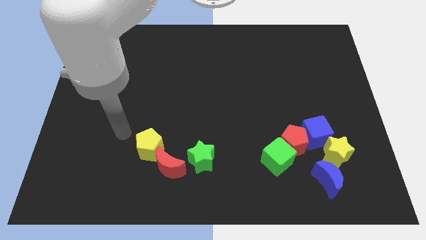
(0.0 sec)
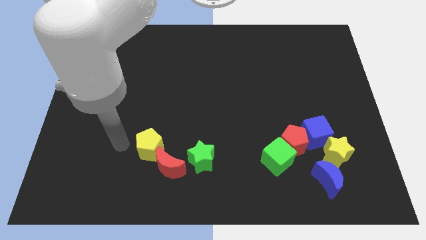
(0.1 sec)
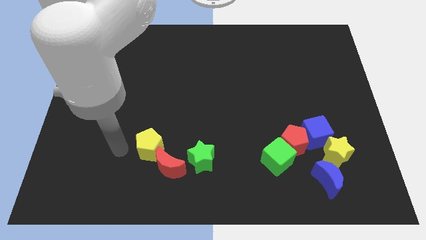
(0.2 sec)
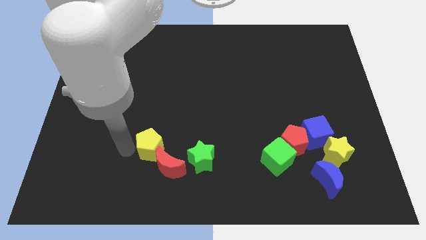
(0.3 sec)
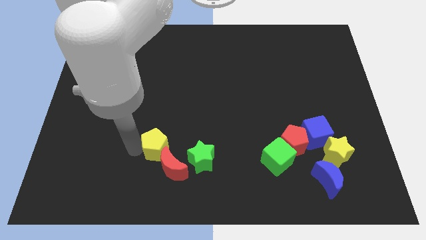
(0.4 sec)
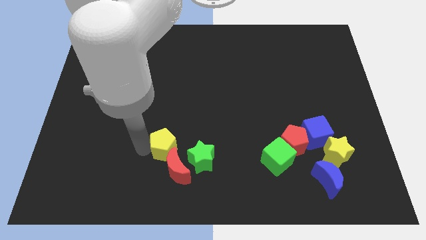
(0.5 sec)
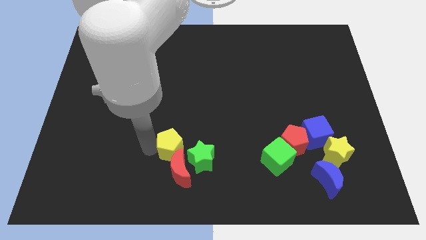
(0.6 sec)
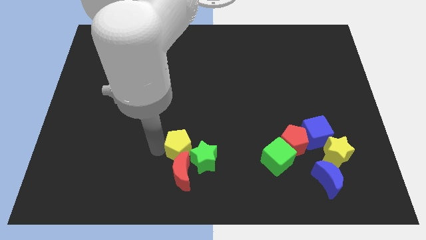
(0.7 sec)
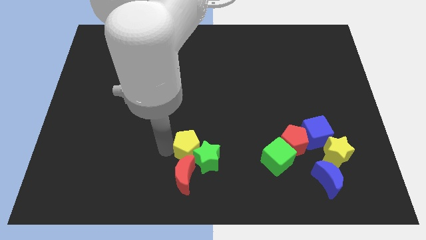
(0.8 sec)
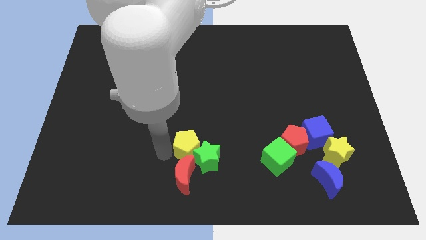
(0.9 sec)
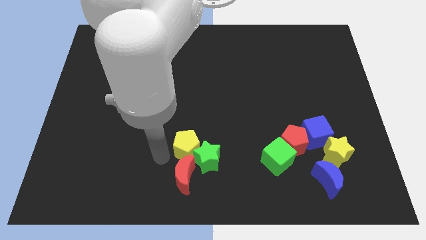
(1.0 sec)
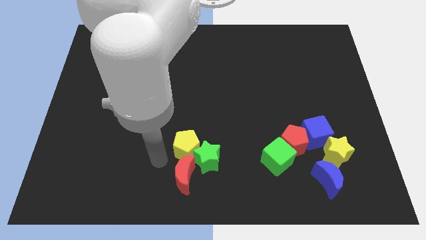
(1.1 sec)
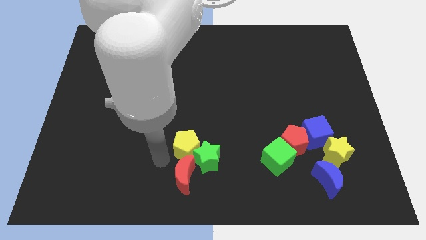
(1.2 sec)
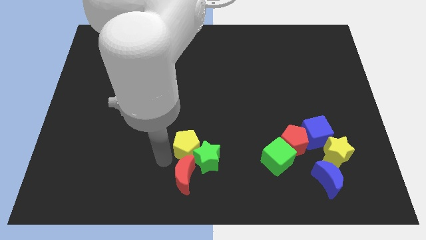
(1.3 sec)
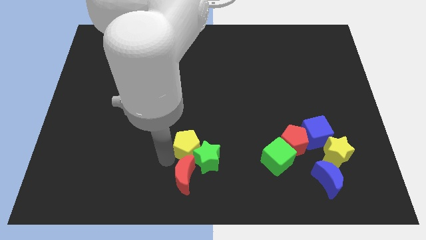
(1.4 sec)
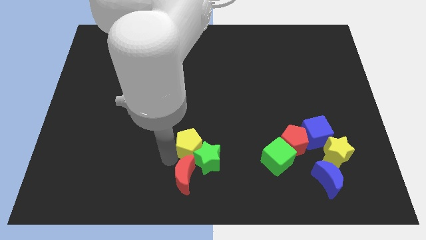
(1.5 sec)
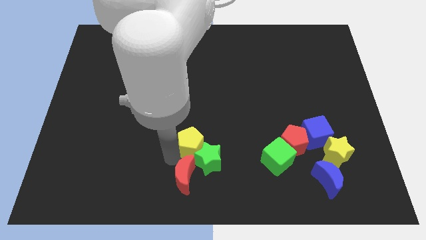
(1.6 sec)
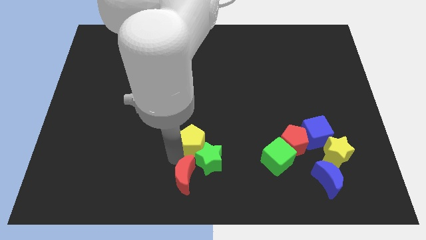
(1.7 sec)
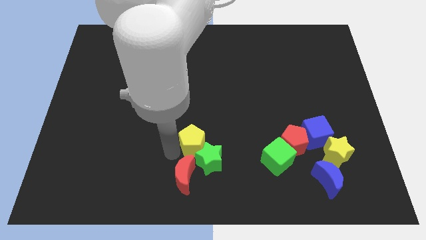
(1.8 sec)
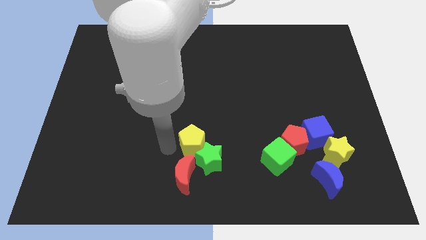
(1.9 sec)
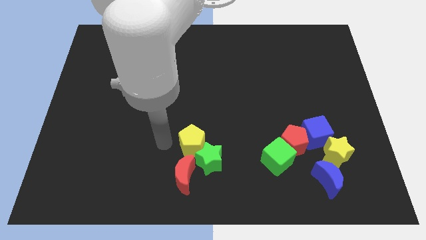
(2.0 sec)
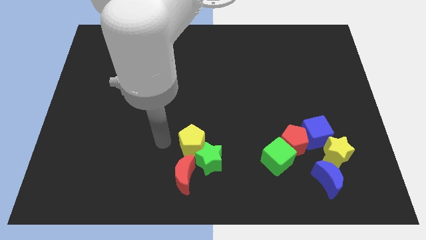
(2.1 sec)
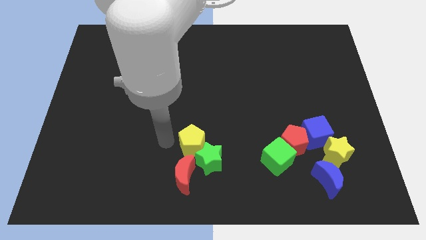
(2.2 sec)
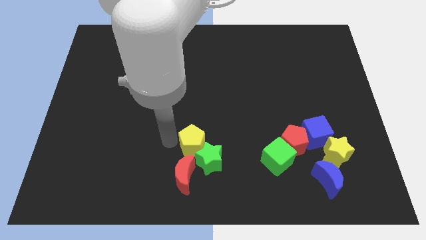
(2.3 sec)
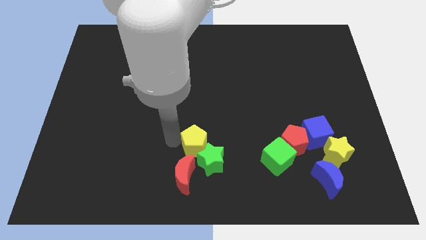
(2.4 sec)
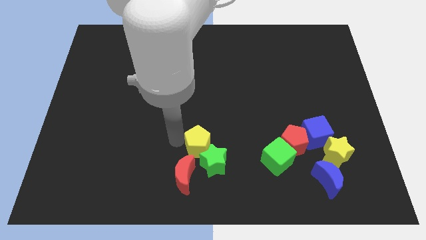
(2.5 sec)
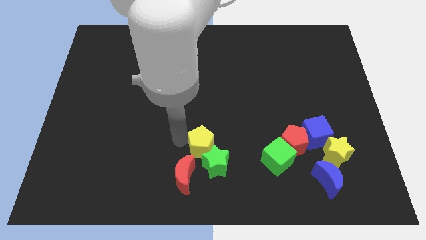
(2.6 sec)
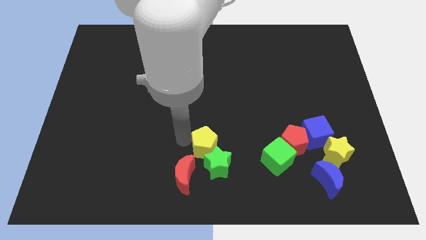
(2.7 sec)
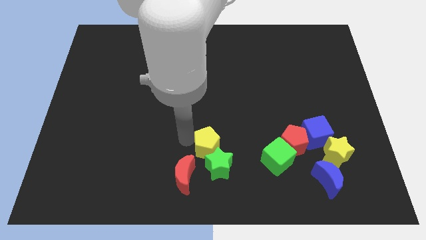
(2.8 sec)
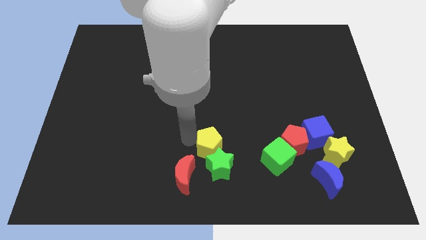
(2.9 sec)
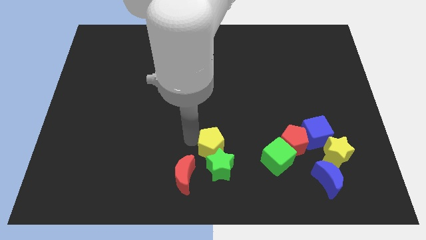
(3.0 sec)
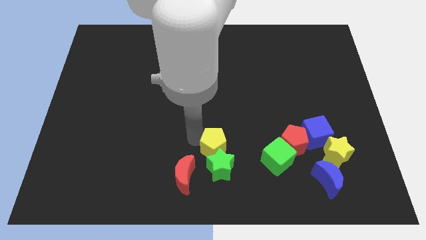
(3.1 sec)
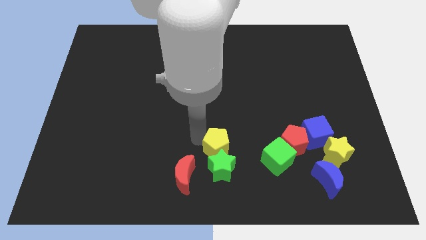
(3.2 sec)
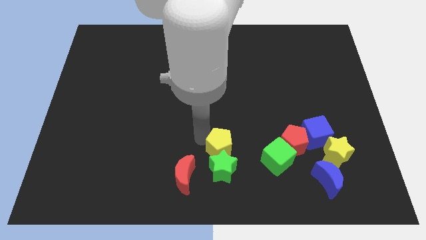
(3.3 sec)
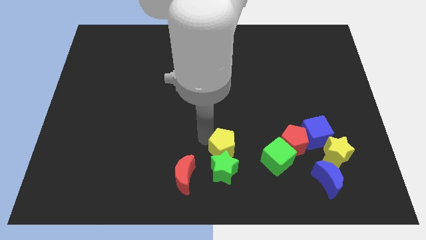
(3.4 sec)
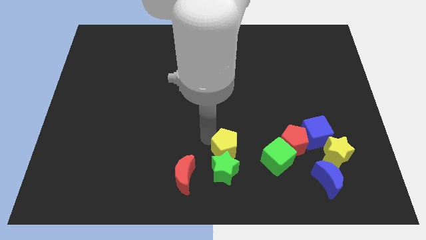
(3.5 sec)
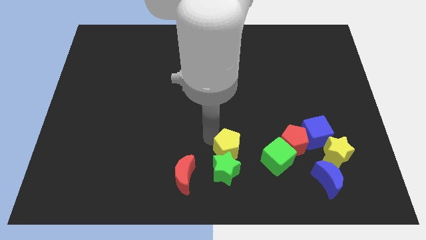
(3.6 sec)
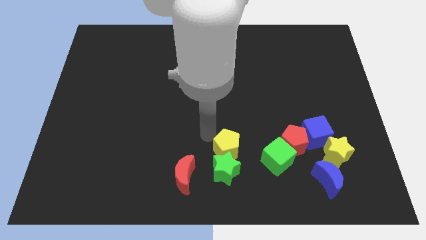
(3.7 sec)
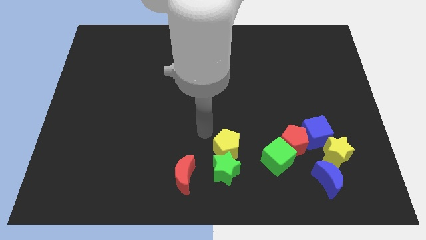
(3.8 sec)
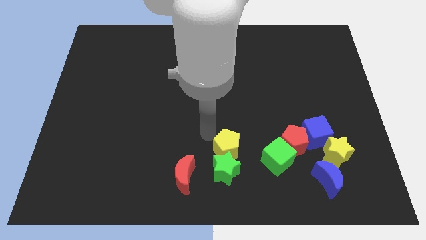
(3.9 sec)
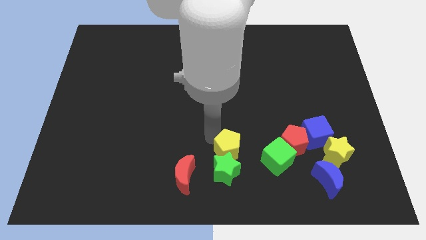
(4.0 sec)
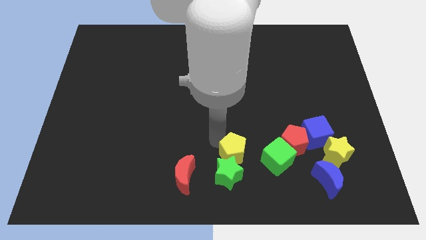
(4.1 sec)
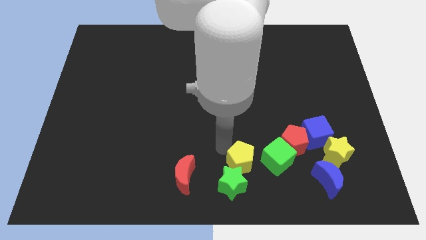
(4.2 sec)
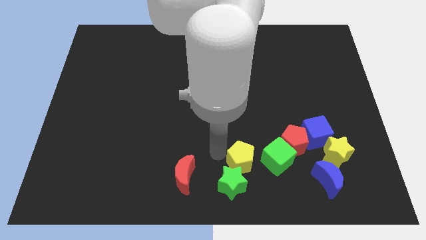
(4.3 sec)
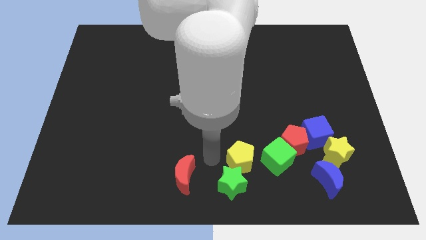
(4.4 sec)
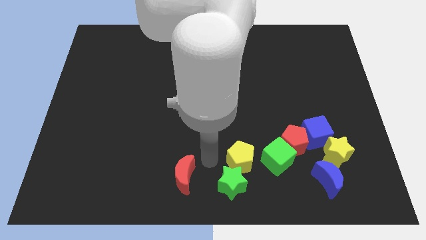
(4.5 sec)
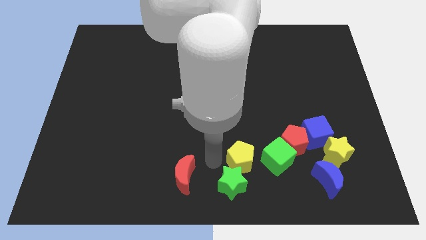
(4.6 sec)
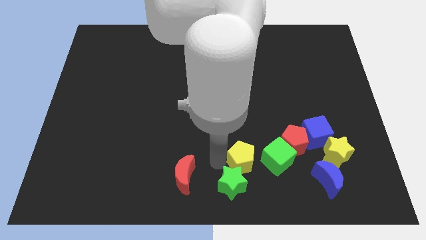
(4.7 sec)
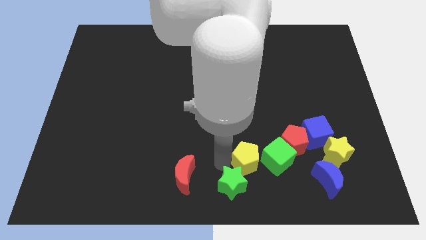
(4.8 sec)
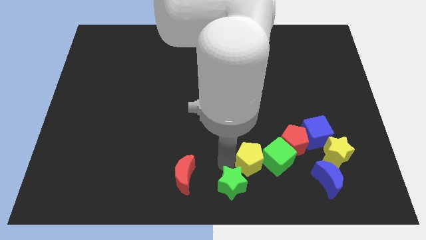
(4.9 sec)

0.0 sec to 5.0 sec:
push the yellow pentagon close to the green cube

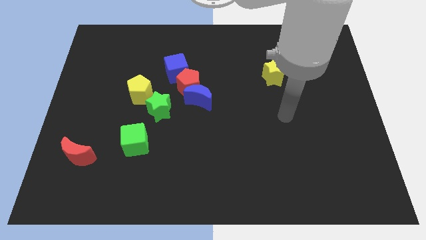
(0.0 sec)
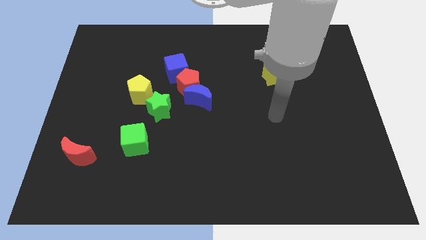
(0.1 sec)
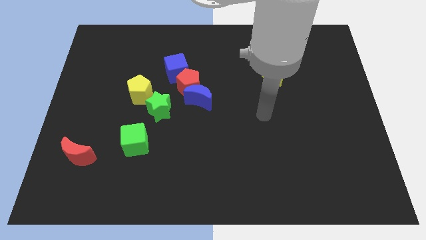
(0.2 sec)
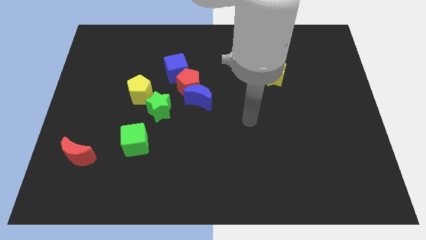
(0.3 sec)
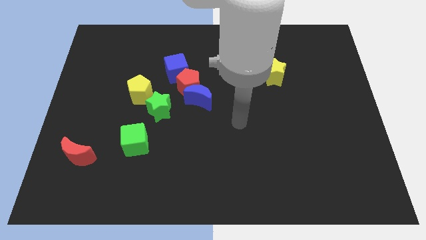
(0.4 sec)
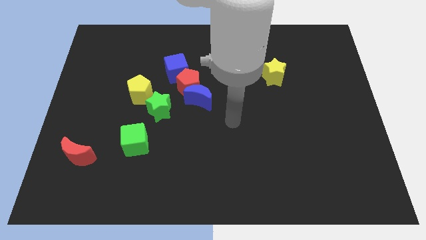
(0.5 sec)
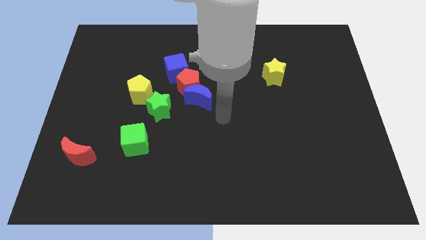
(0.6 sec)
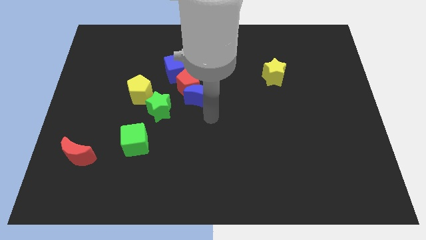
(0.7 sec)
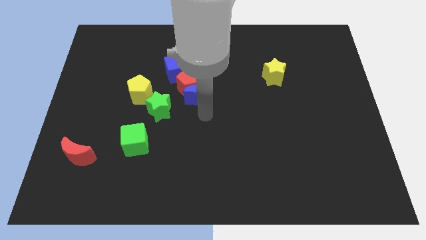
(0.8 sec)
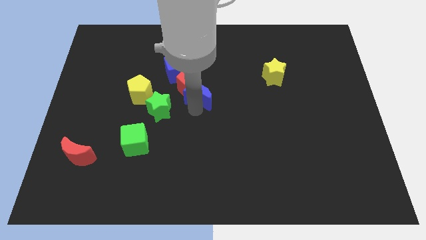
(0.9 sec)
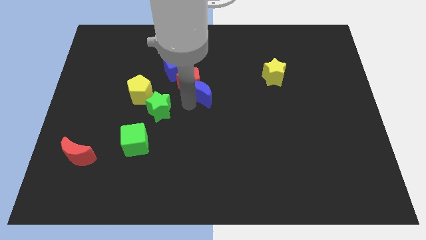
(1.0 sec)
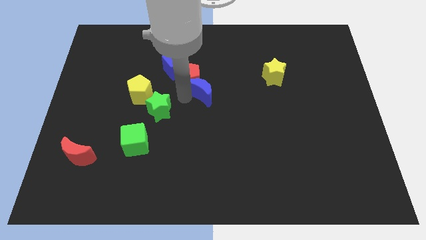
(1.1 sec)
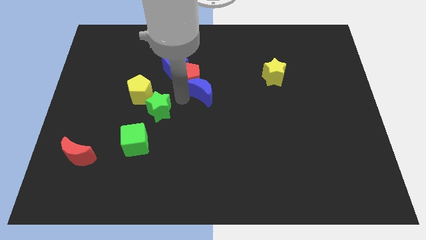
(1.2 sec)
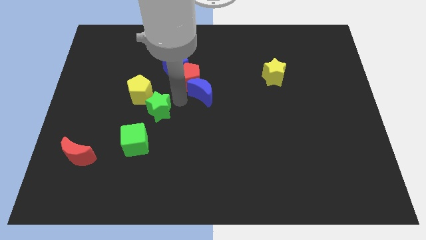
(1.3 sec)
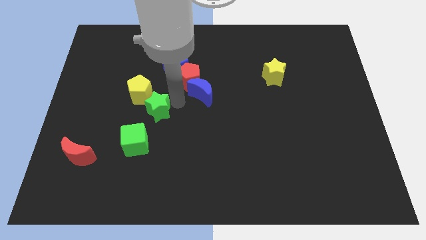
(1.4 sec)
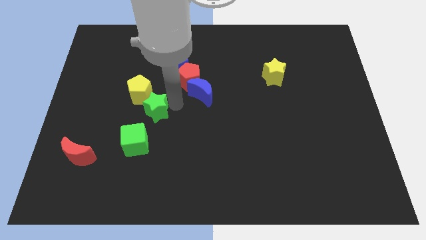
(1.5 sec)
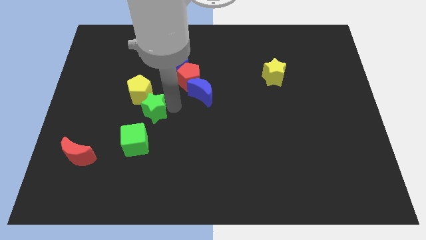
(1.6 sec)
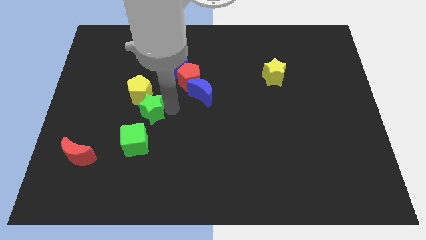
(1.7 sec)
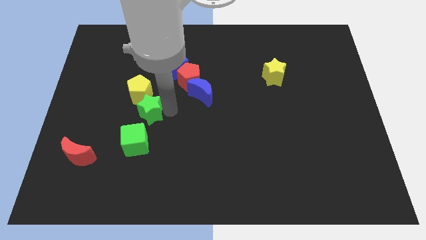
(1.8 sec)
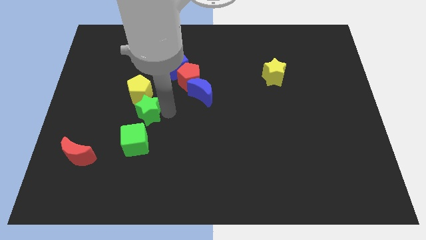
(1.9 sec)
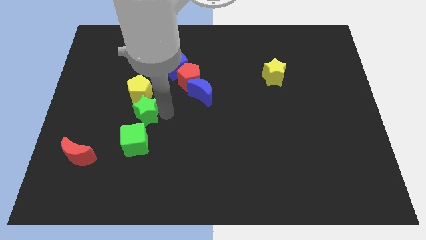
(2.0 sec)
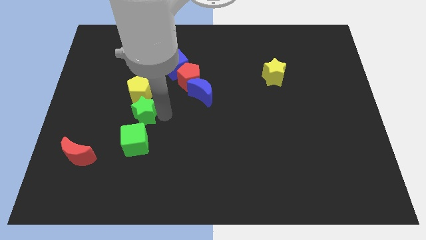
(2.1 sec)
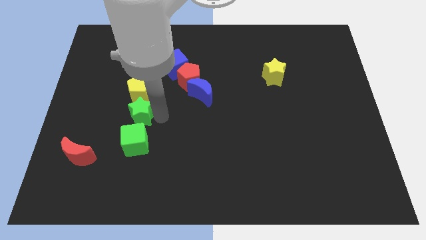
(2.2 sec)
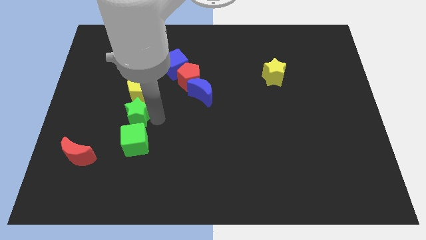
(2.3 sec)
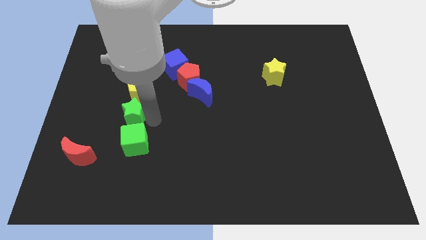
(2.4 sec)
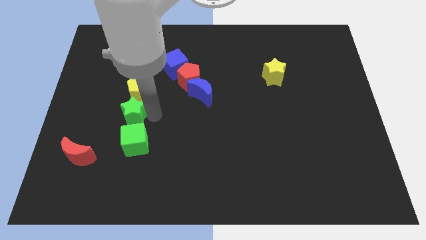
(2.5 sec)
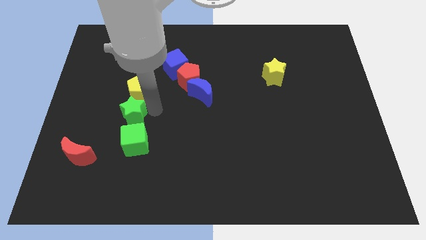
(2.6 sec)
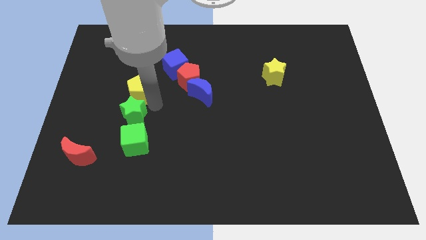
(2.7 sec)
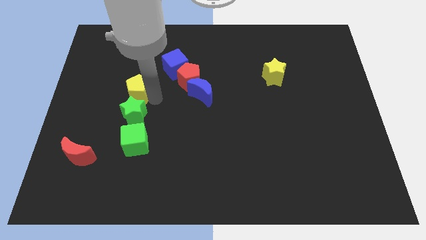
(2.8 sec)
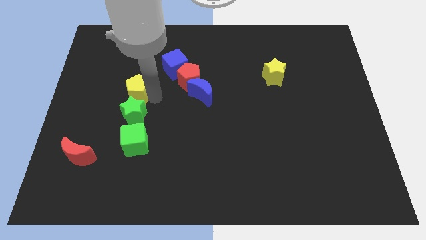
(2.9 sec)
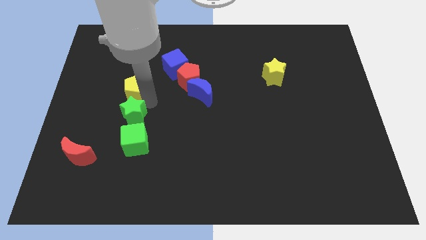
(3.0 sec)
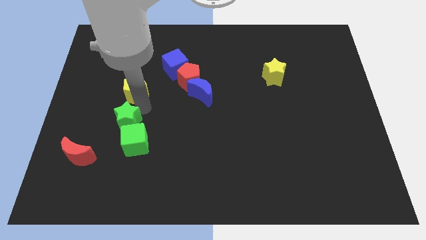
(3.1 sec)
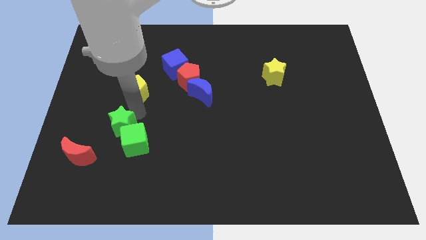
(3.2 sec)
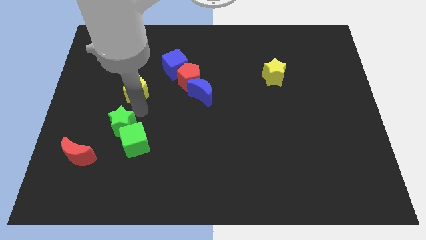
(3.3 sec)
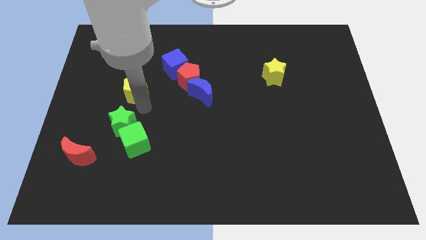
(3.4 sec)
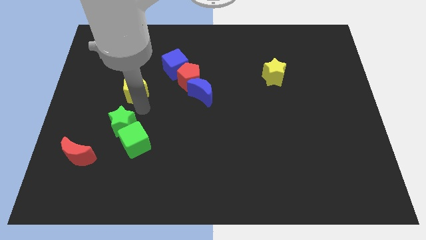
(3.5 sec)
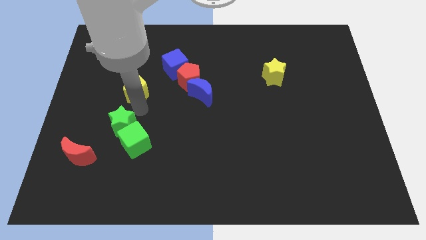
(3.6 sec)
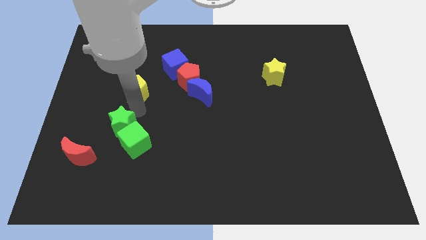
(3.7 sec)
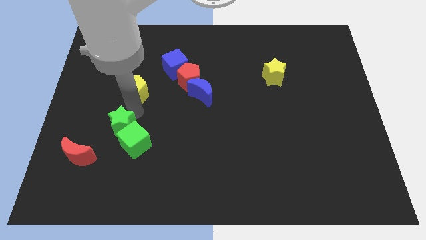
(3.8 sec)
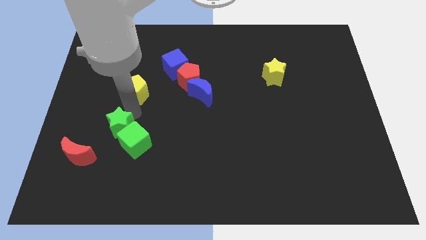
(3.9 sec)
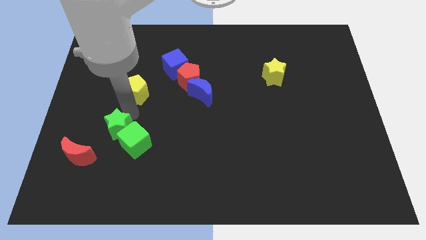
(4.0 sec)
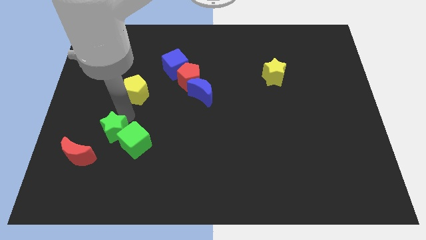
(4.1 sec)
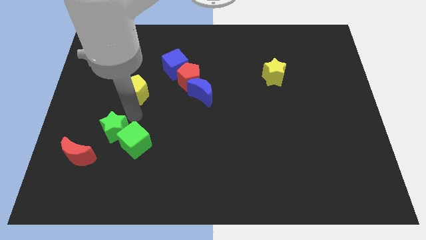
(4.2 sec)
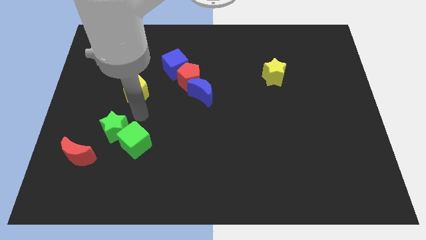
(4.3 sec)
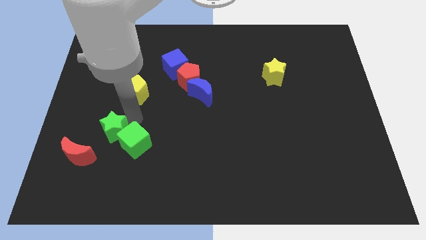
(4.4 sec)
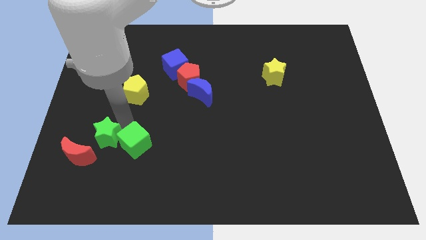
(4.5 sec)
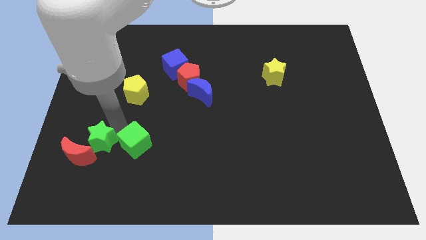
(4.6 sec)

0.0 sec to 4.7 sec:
move the green star to the red moon
